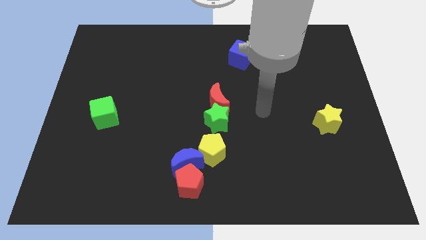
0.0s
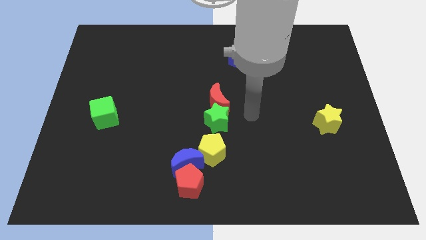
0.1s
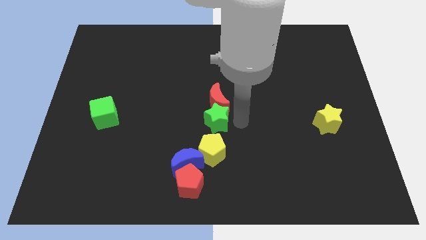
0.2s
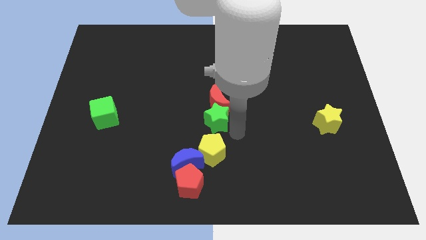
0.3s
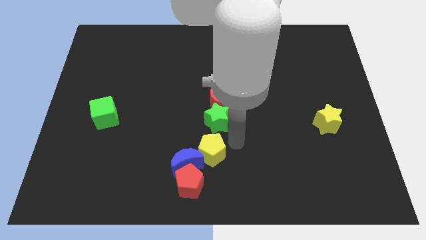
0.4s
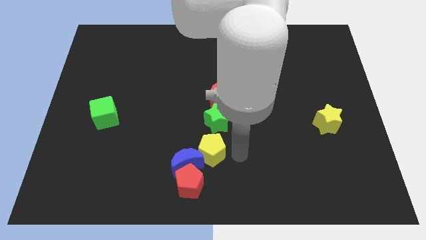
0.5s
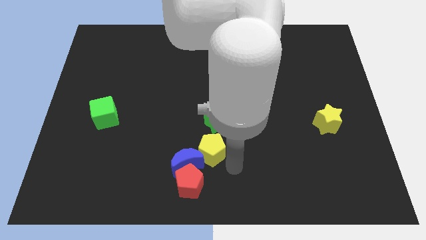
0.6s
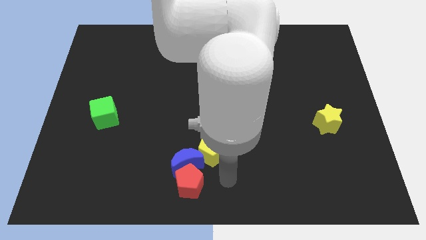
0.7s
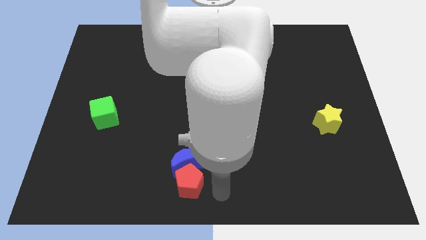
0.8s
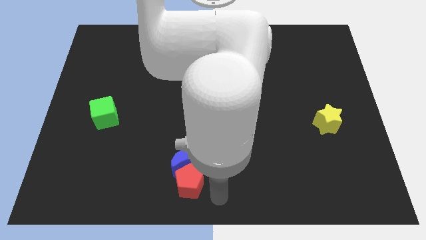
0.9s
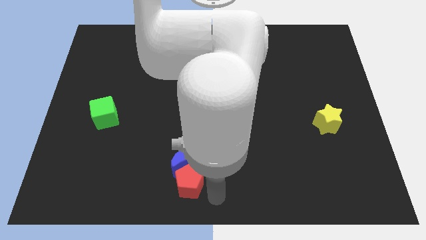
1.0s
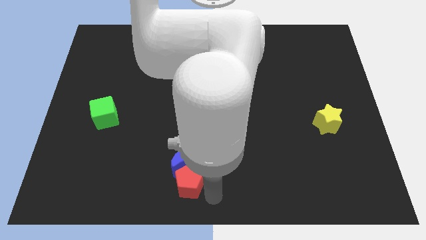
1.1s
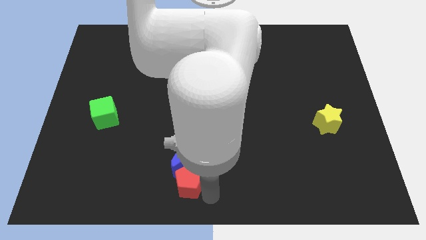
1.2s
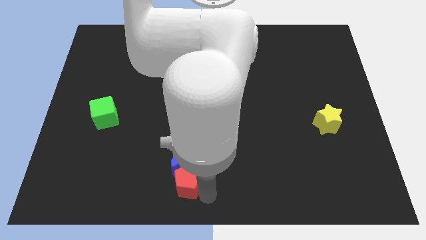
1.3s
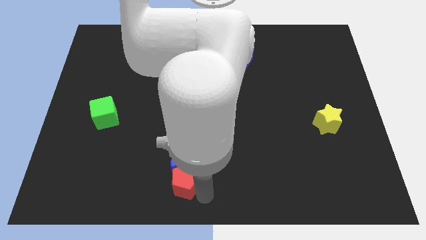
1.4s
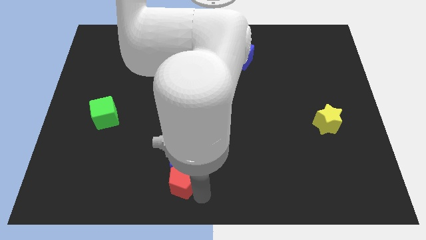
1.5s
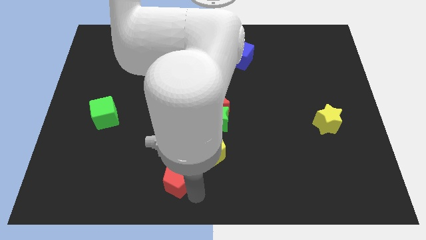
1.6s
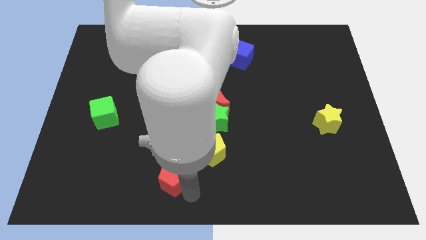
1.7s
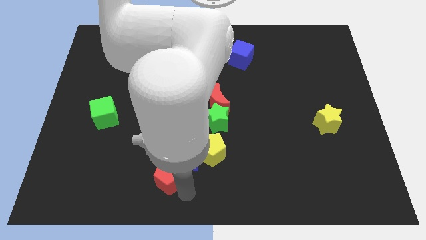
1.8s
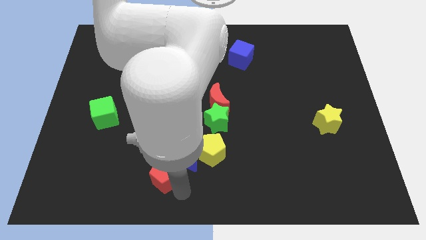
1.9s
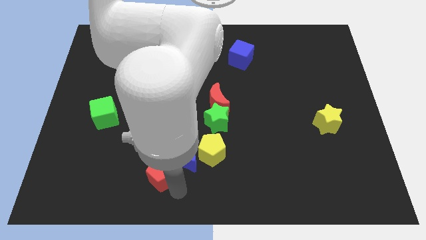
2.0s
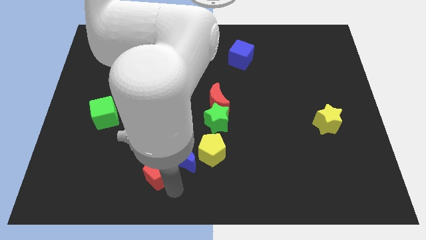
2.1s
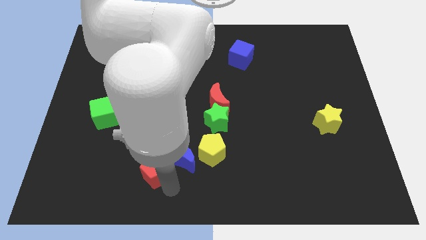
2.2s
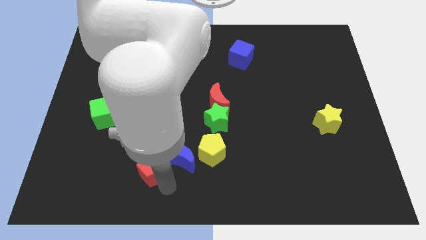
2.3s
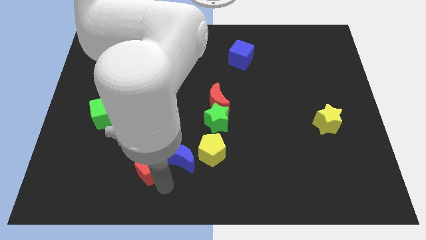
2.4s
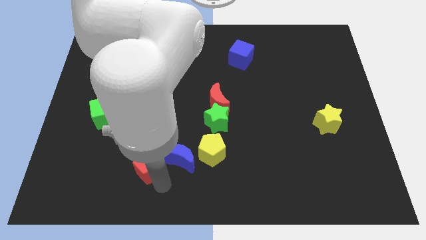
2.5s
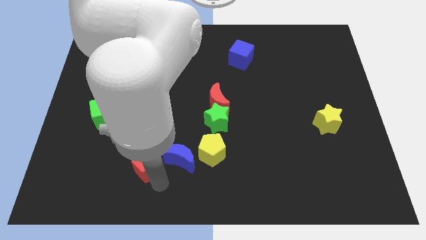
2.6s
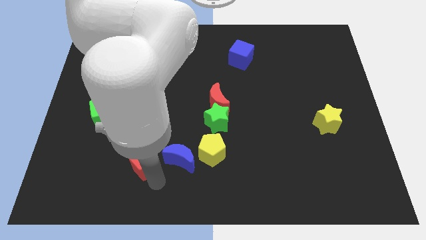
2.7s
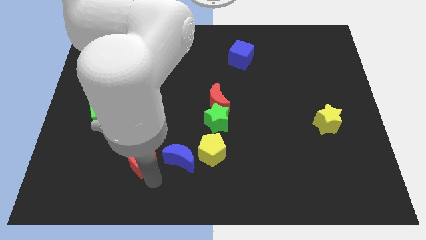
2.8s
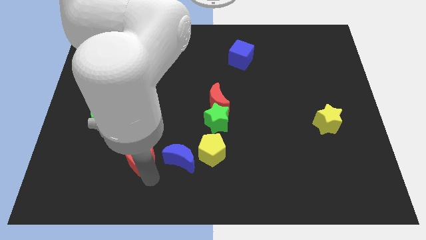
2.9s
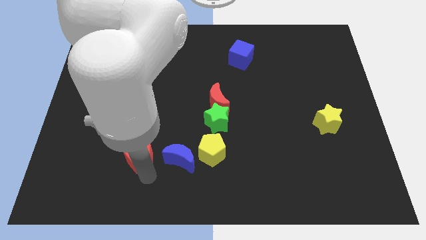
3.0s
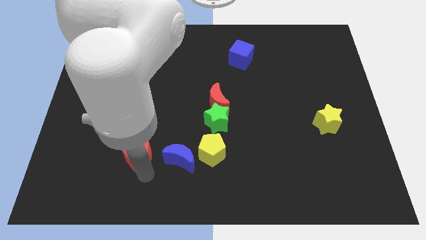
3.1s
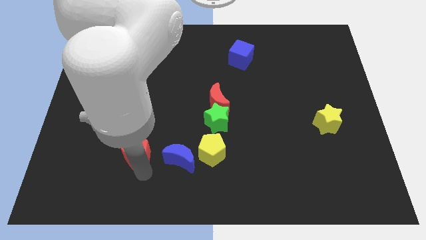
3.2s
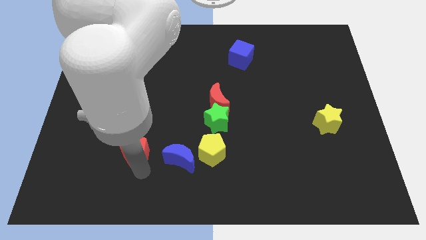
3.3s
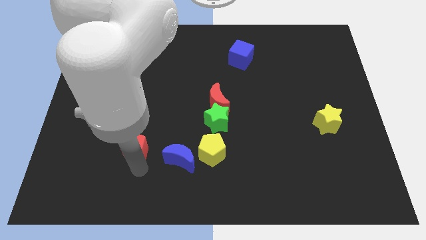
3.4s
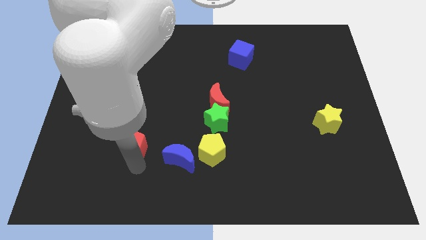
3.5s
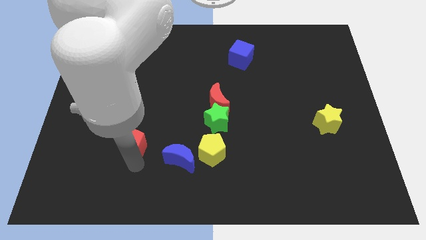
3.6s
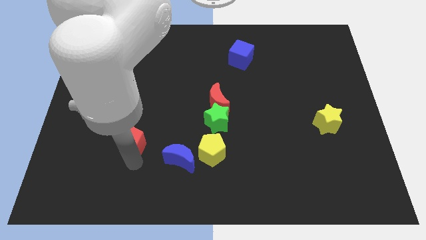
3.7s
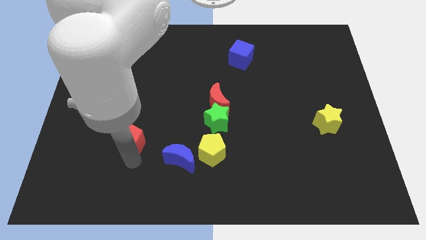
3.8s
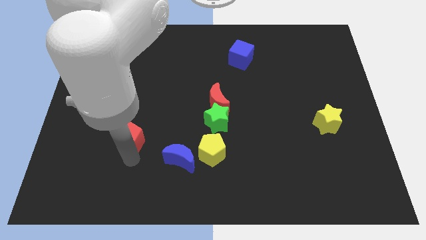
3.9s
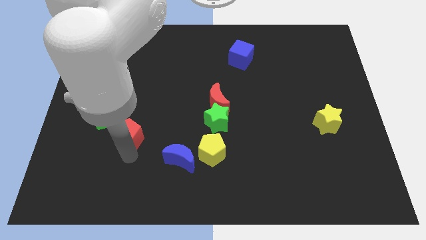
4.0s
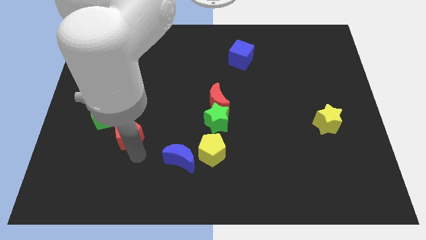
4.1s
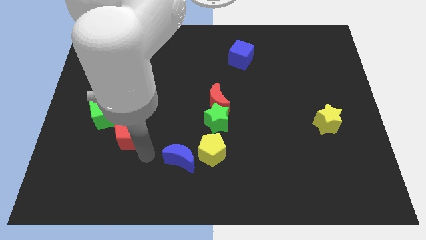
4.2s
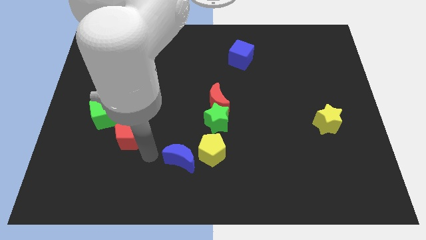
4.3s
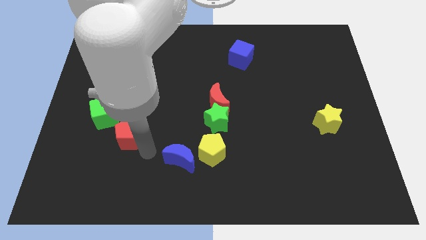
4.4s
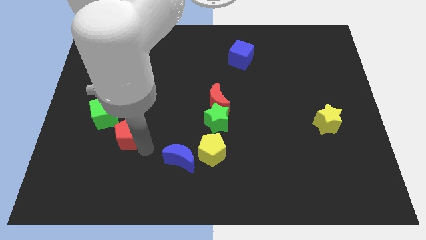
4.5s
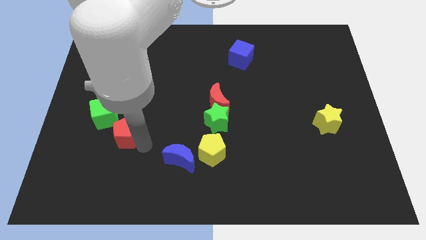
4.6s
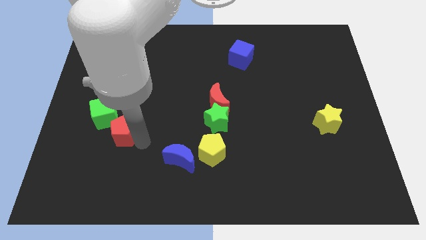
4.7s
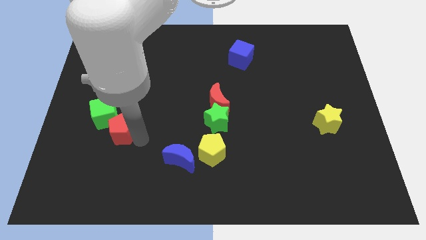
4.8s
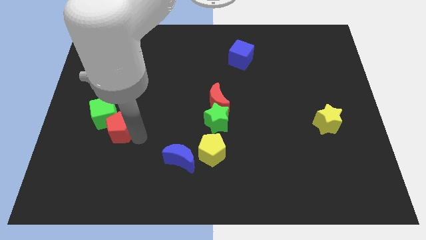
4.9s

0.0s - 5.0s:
move the red pentagon to the green cube

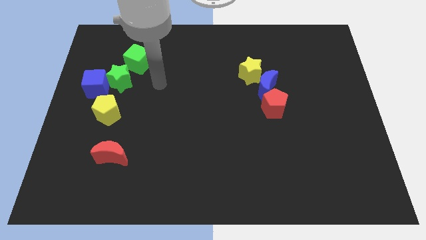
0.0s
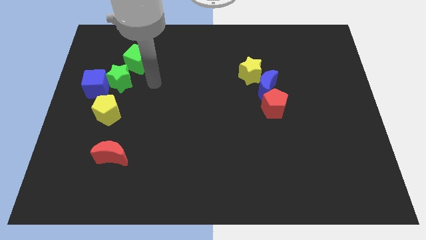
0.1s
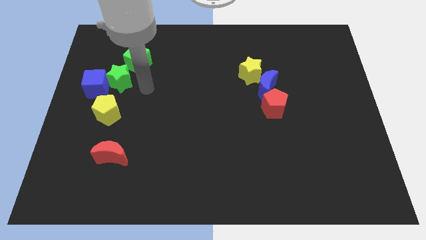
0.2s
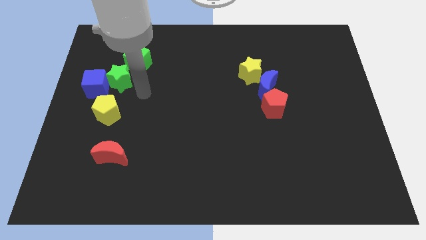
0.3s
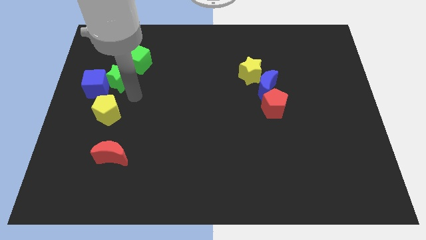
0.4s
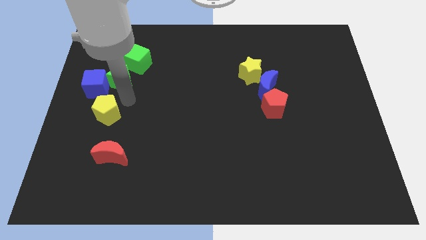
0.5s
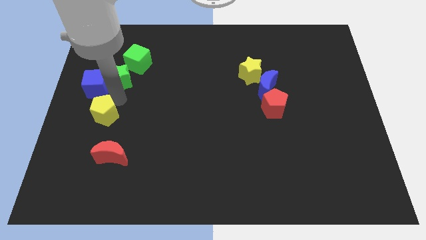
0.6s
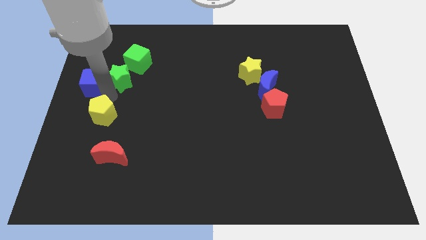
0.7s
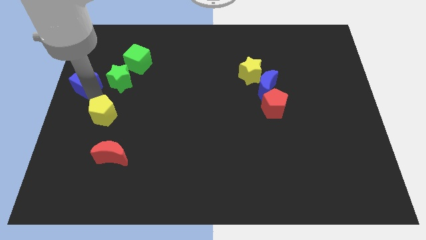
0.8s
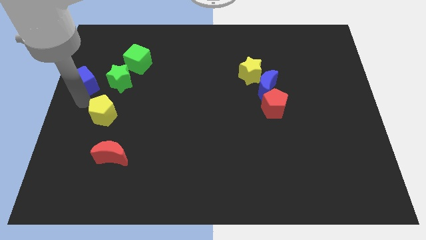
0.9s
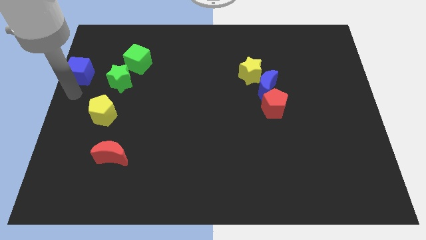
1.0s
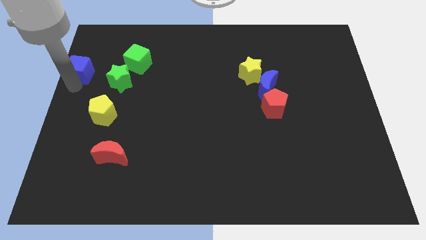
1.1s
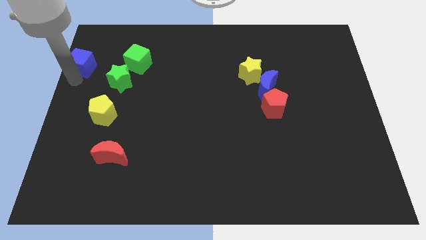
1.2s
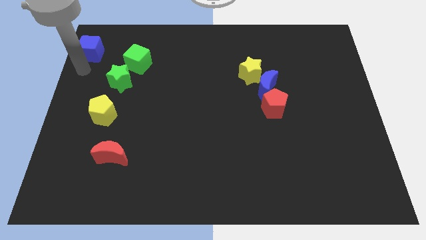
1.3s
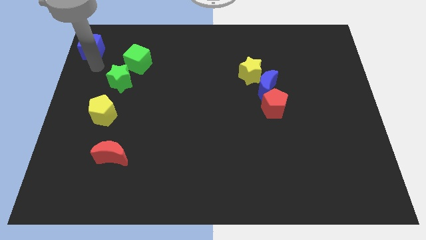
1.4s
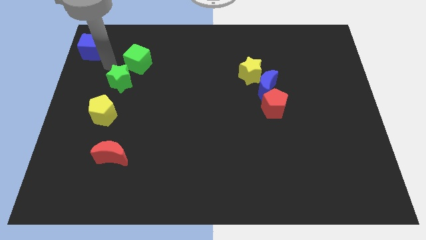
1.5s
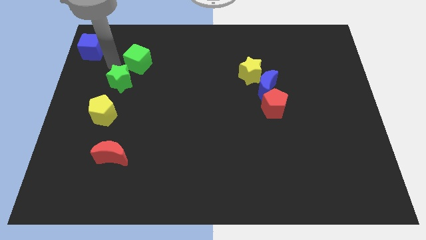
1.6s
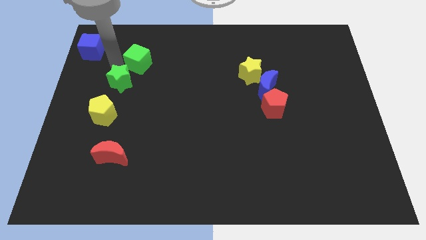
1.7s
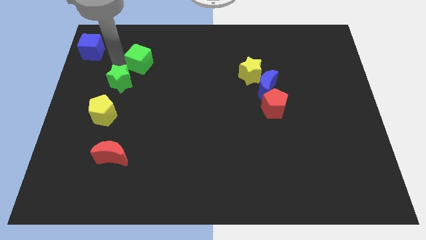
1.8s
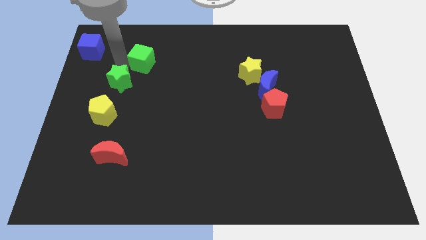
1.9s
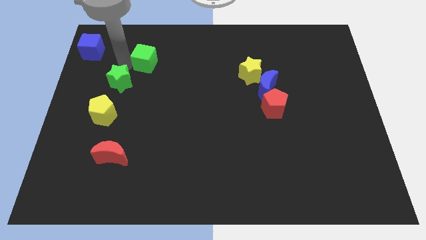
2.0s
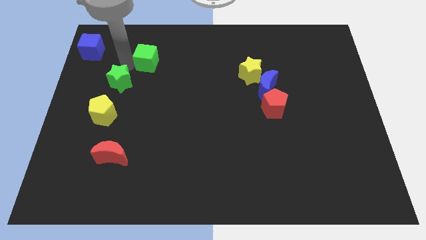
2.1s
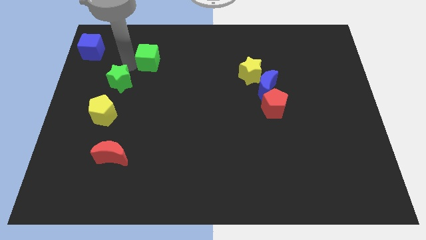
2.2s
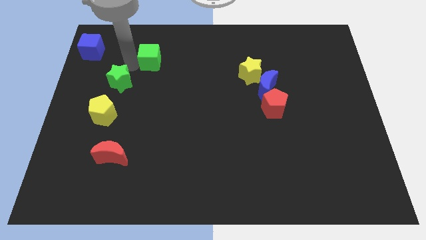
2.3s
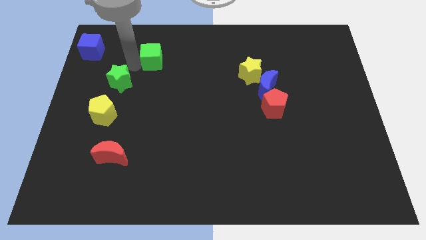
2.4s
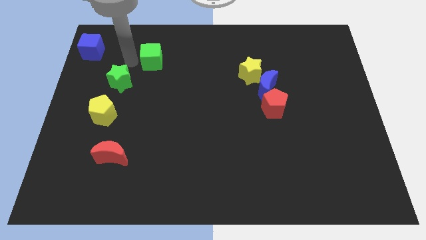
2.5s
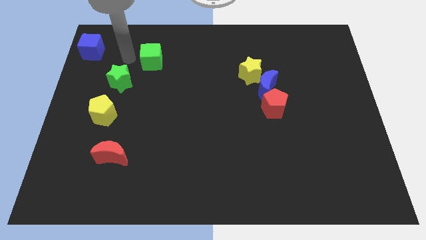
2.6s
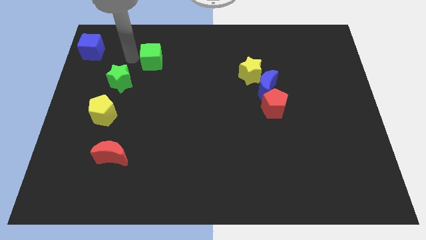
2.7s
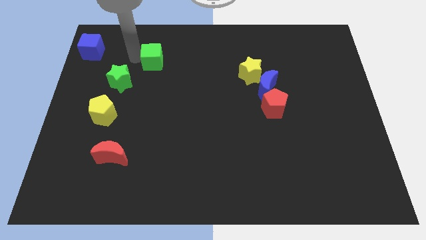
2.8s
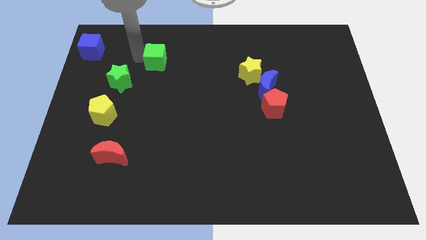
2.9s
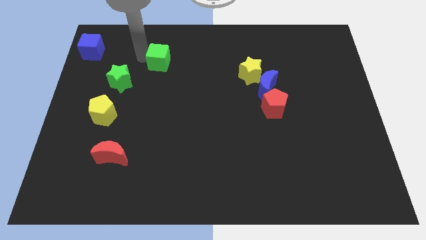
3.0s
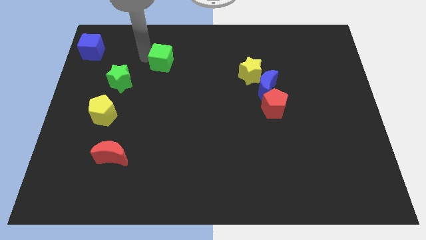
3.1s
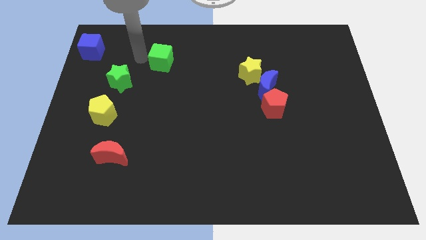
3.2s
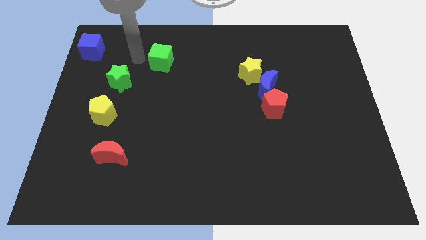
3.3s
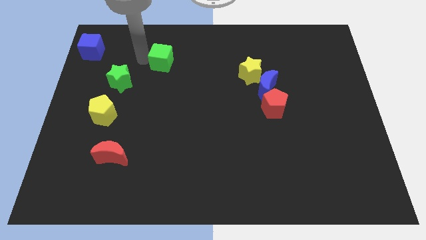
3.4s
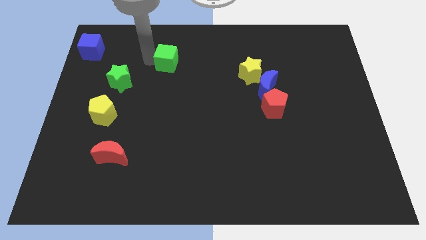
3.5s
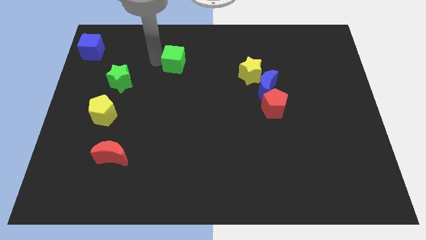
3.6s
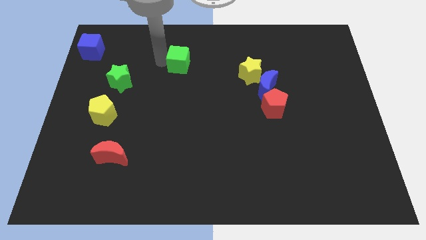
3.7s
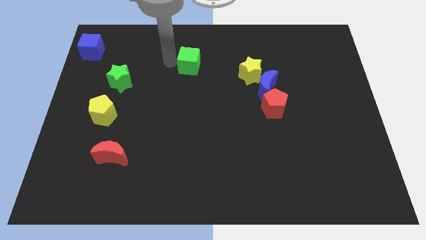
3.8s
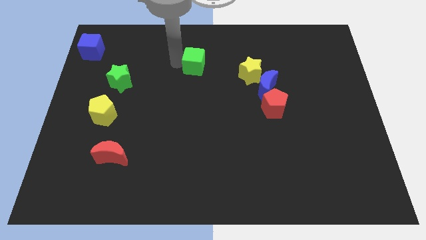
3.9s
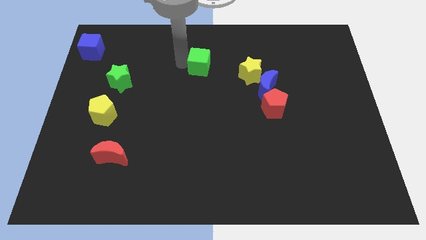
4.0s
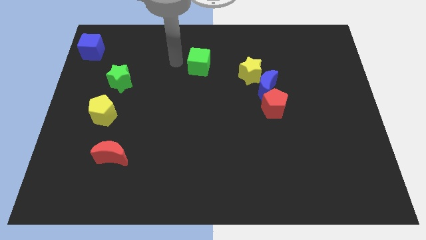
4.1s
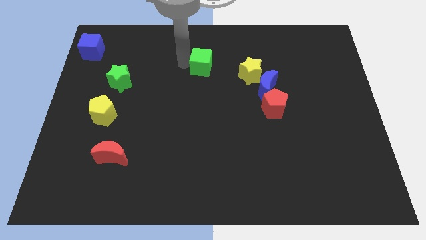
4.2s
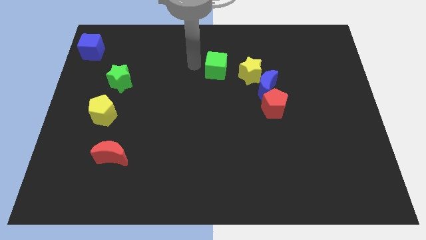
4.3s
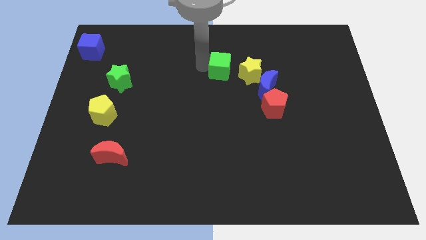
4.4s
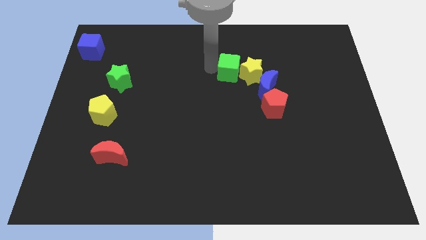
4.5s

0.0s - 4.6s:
push the green cube next to the yellow star
